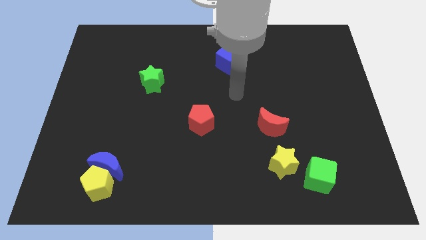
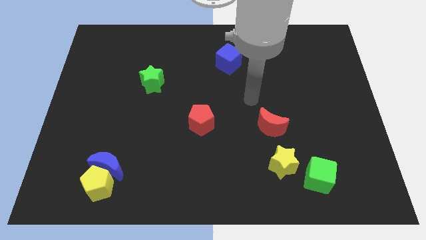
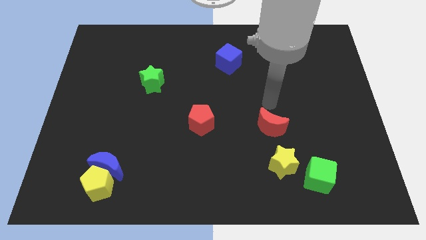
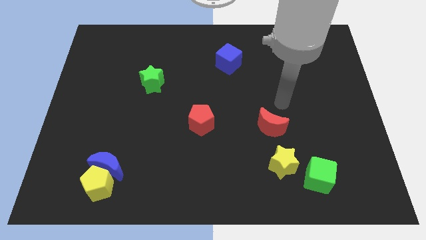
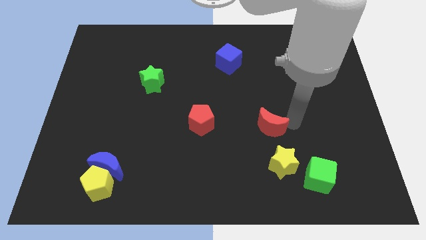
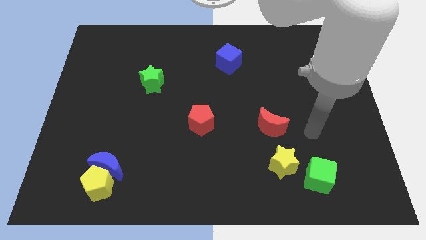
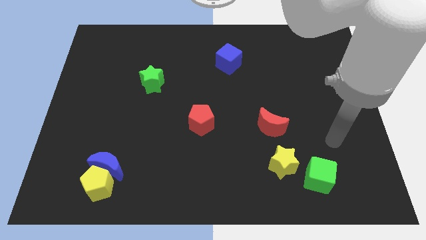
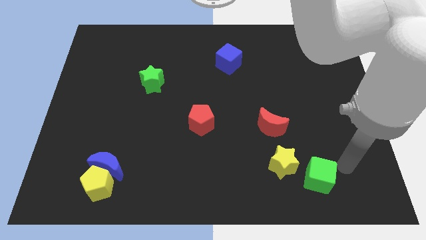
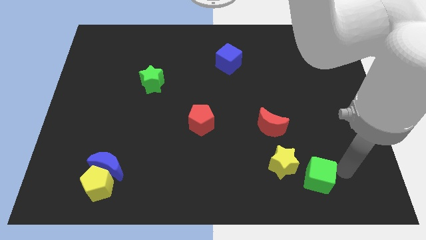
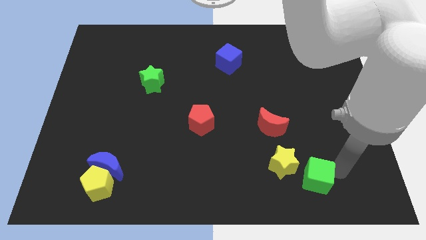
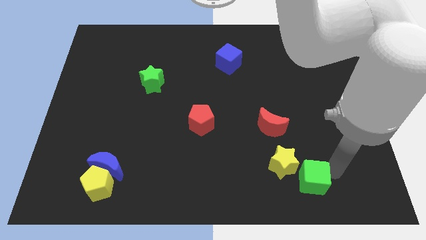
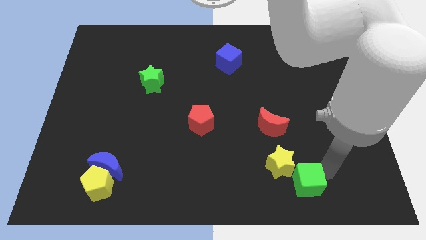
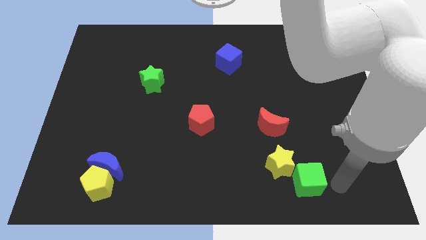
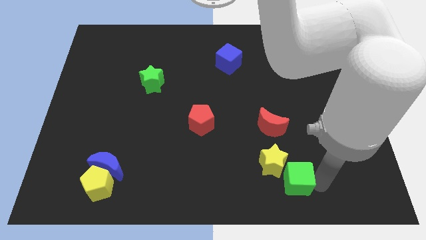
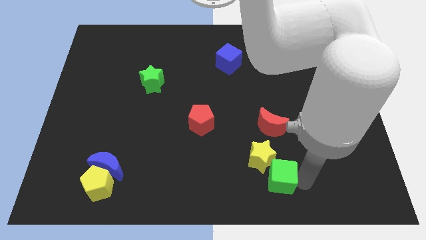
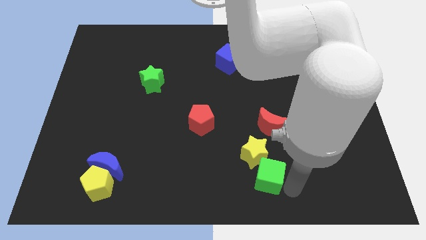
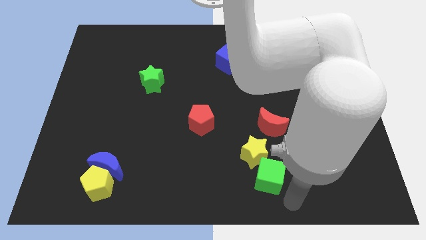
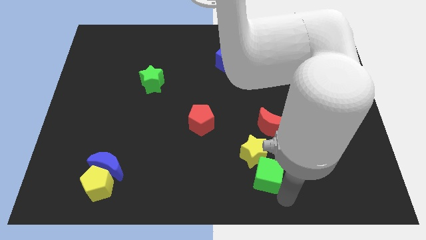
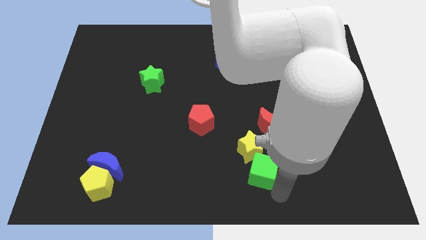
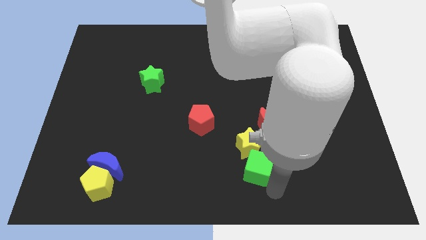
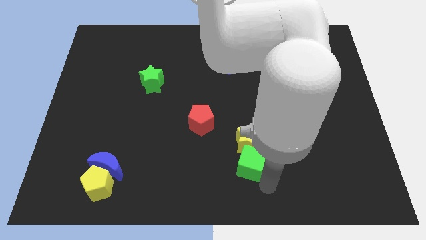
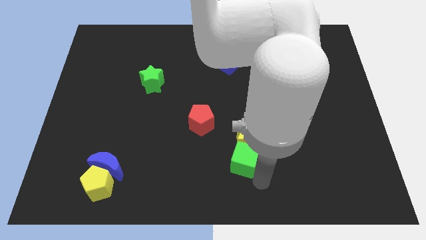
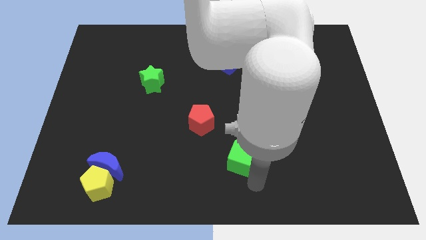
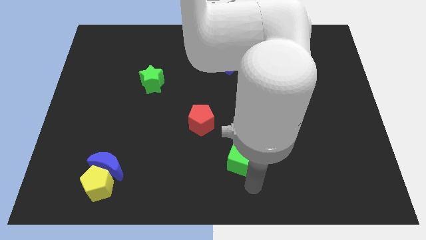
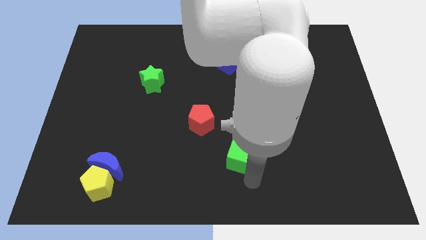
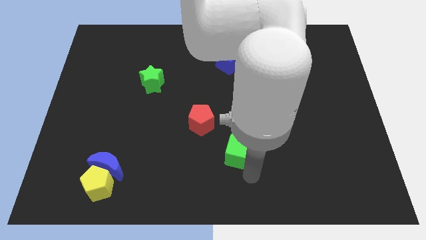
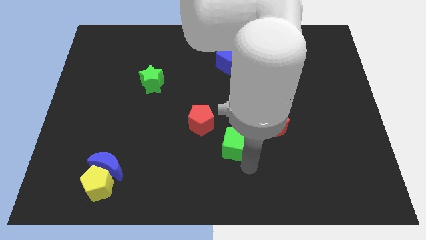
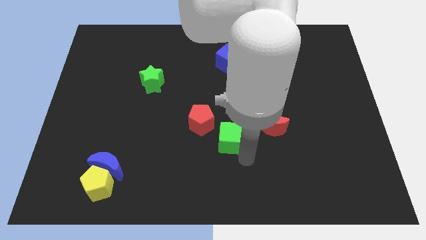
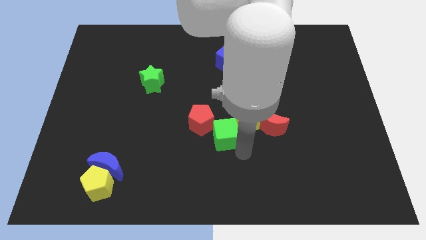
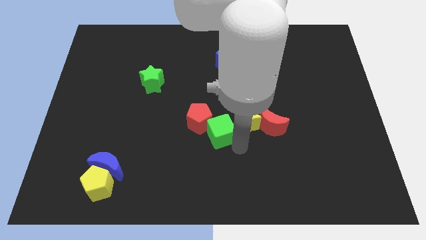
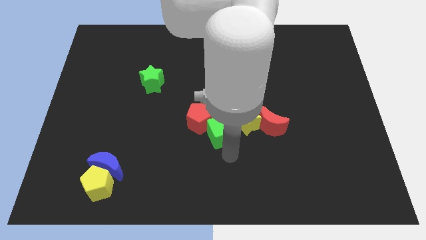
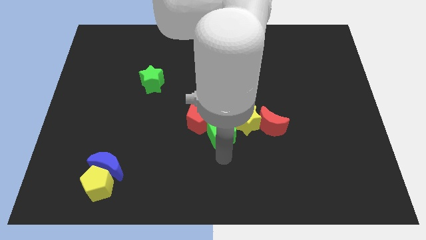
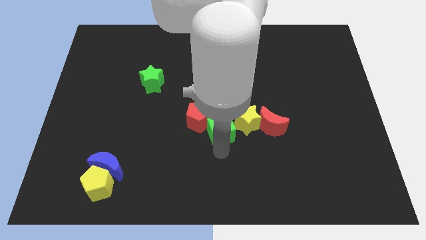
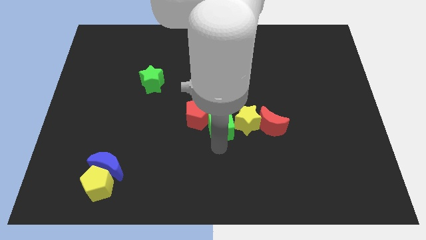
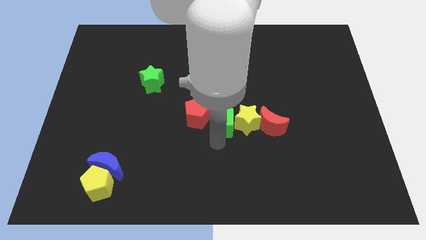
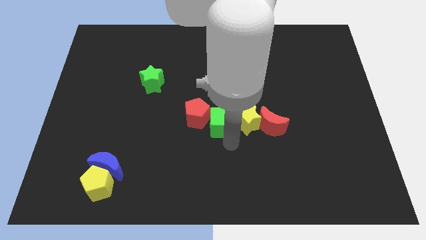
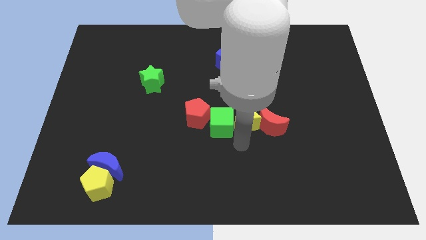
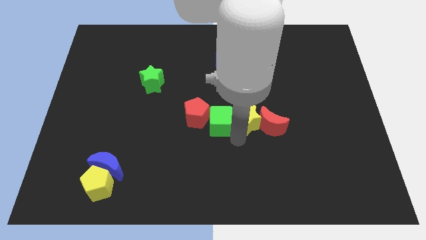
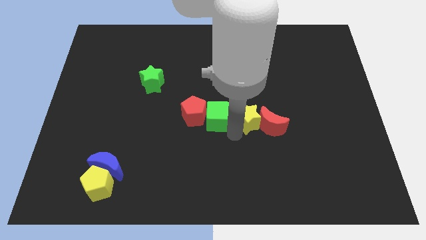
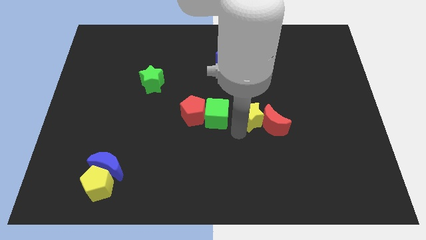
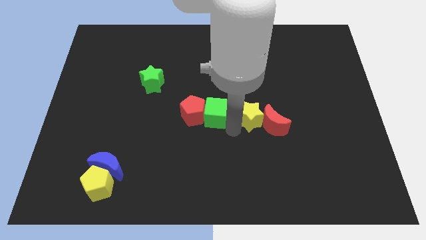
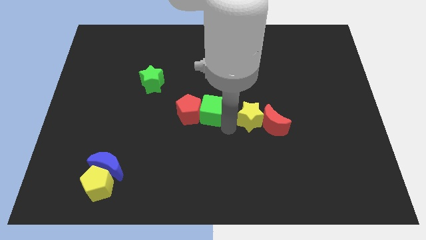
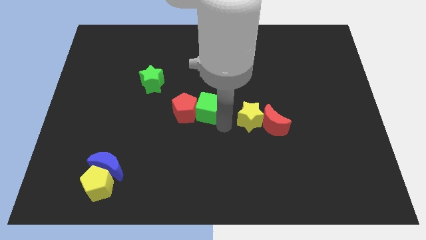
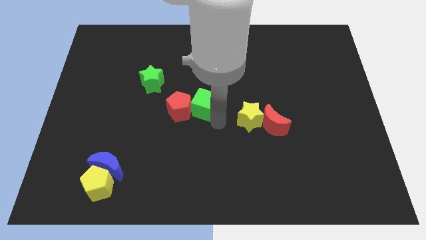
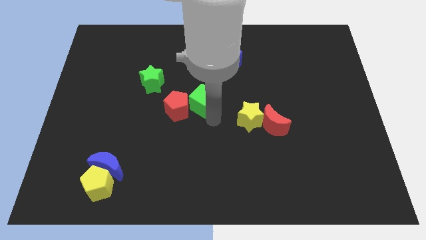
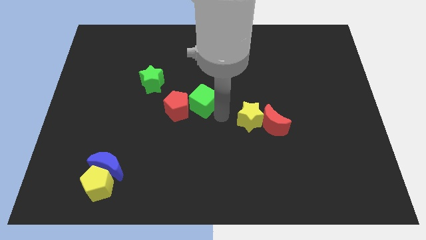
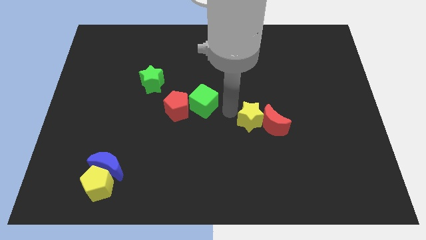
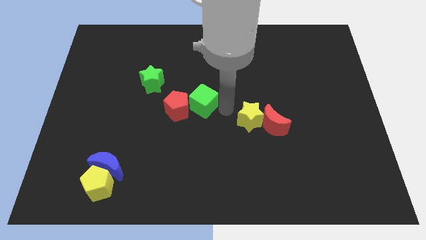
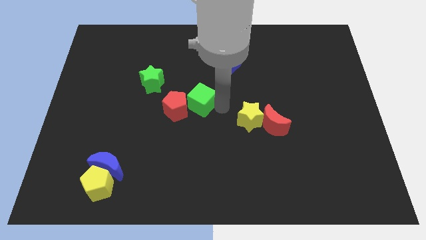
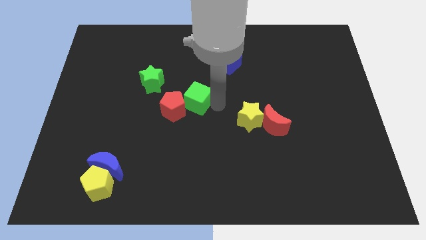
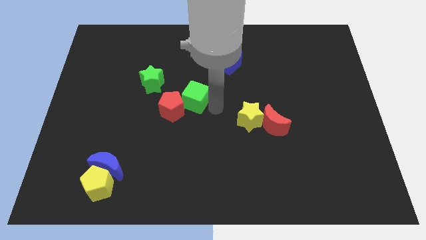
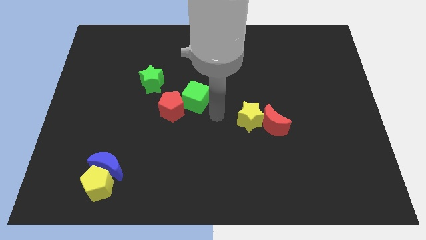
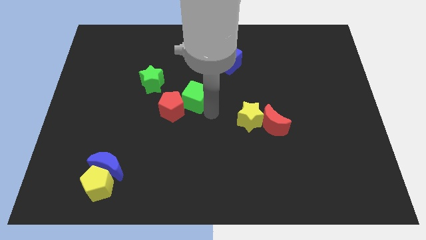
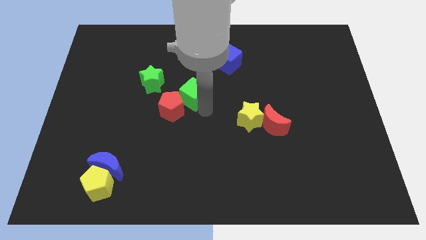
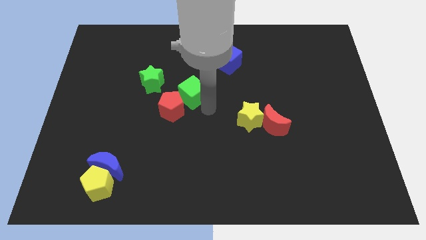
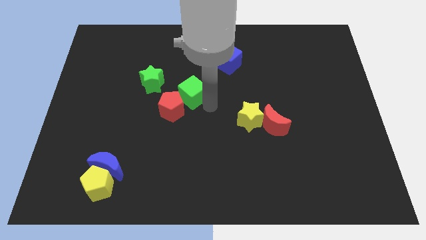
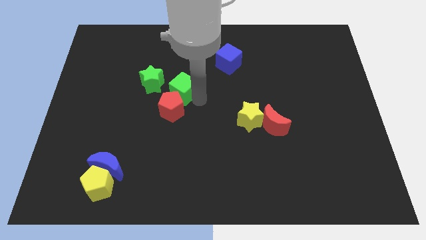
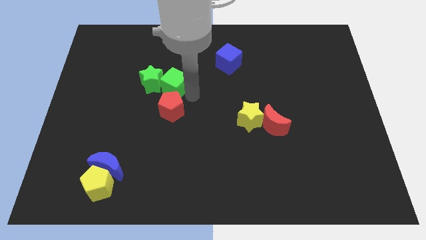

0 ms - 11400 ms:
put the green cube towards the green star

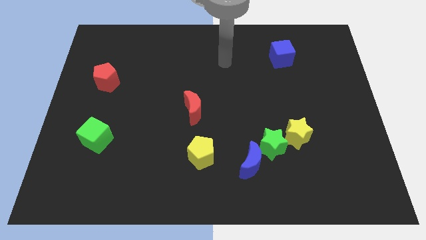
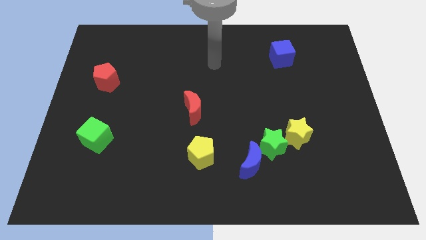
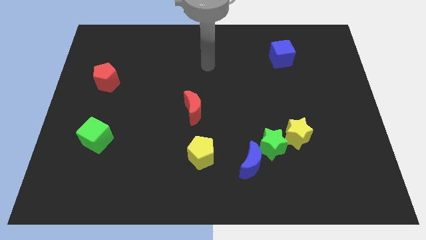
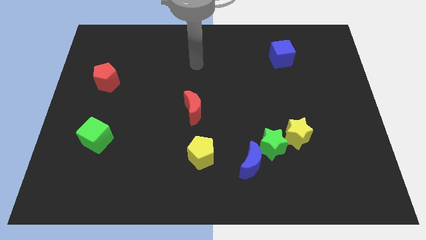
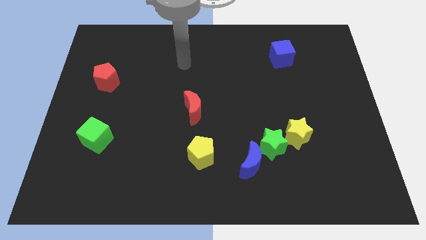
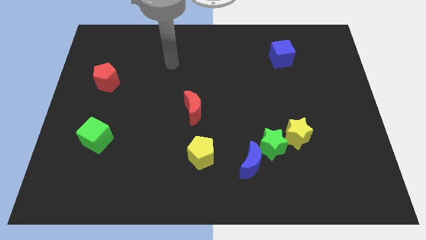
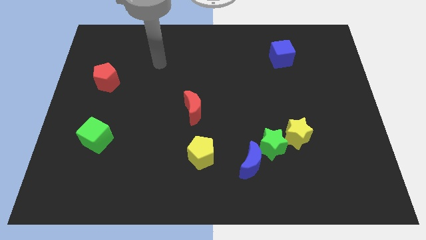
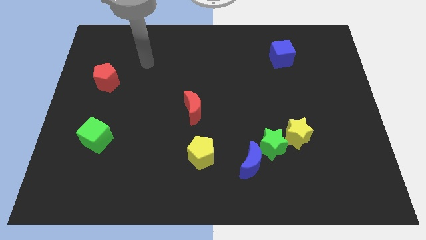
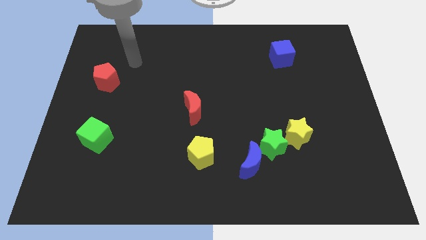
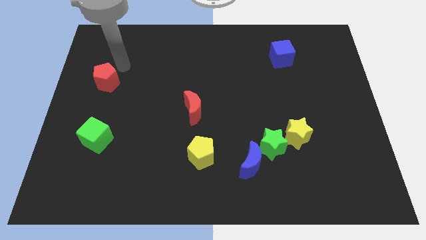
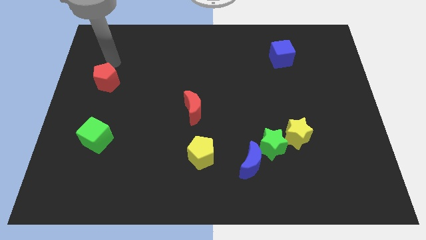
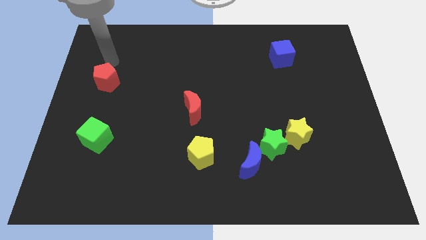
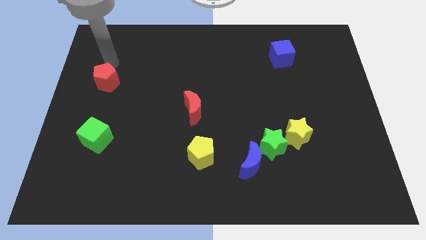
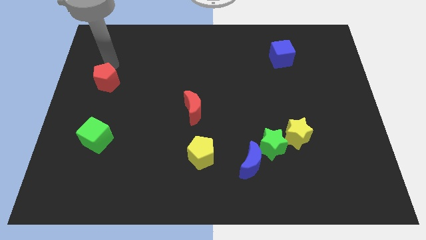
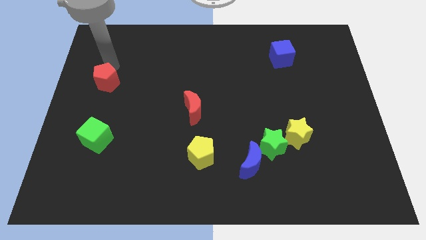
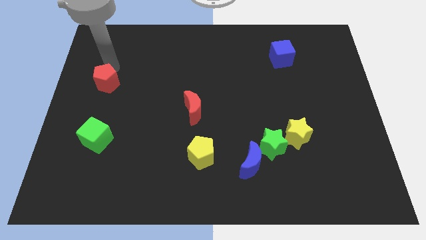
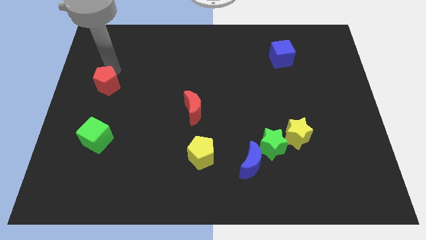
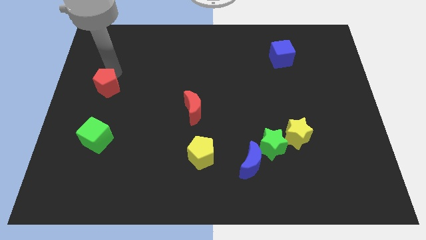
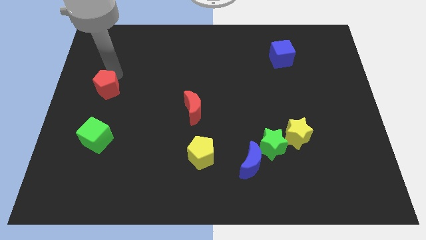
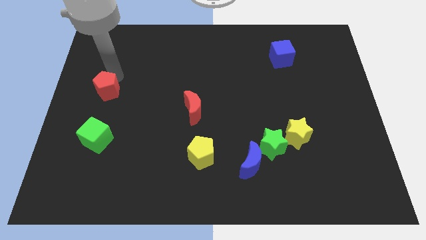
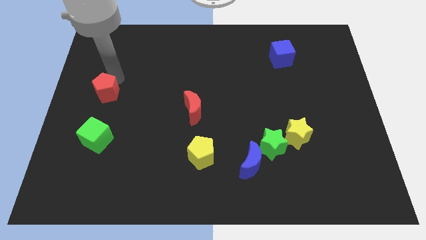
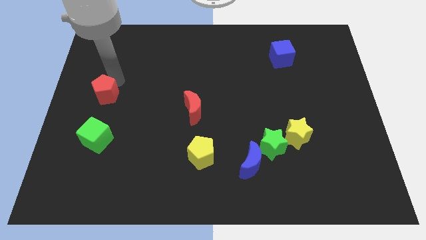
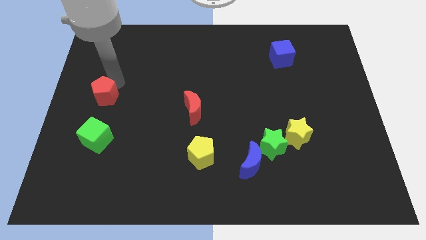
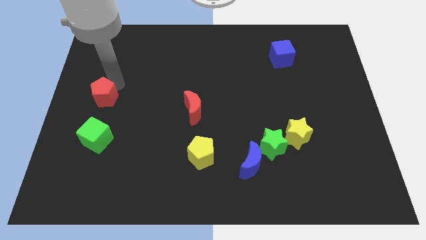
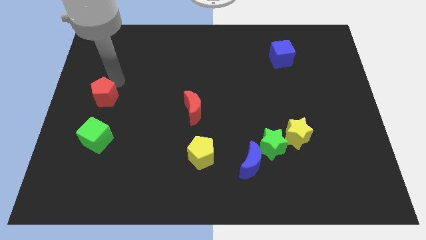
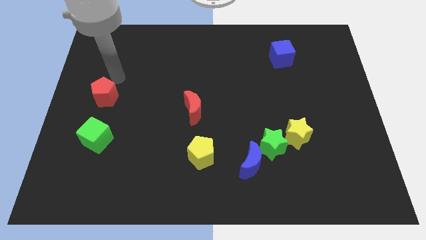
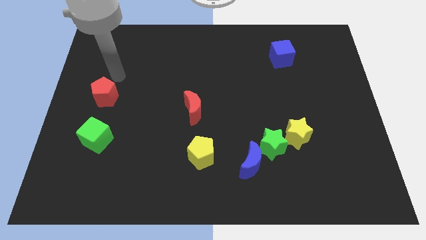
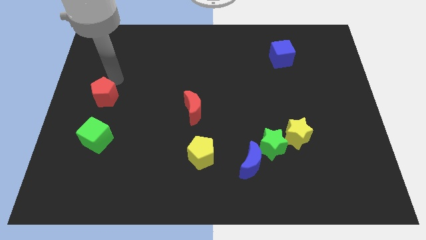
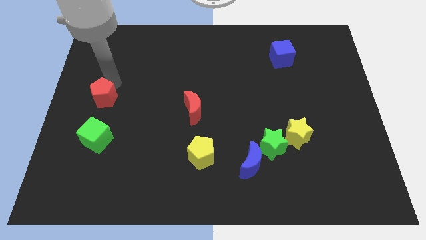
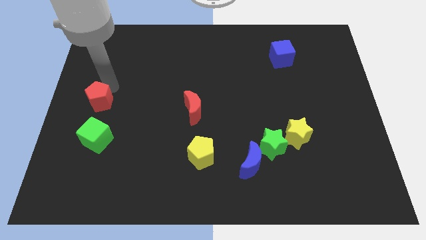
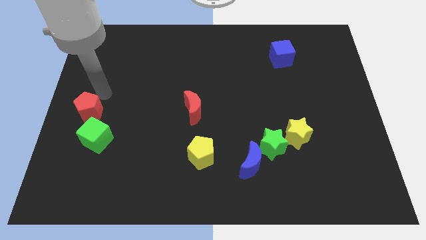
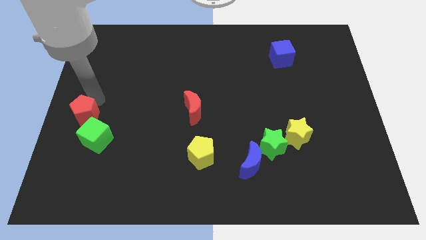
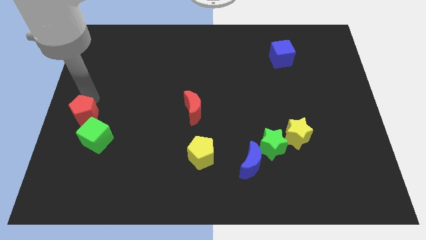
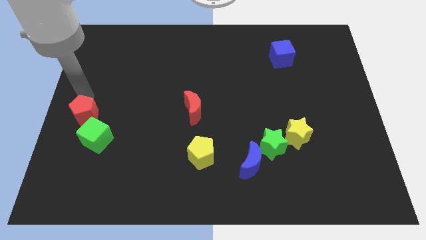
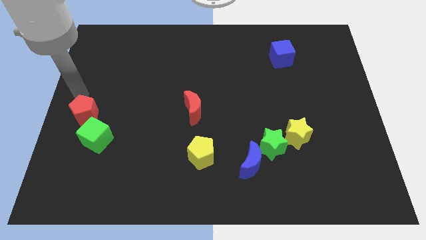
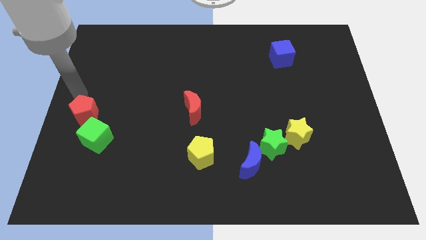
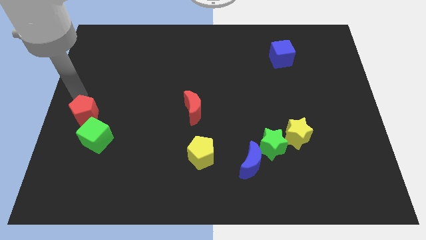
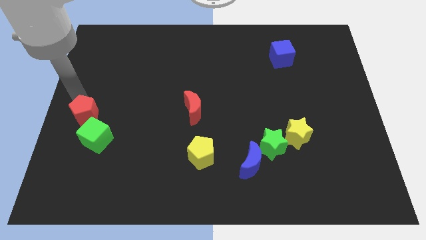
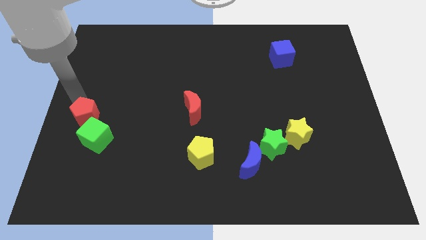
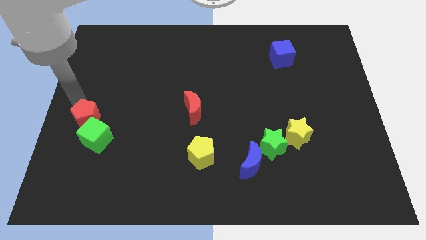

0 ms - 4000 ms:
slide the red pentagon towards the green cube
